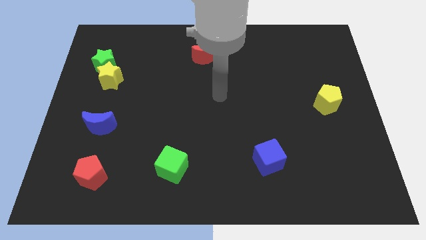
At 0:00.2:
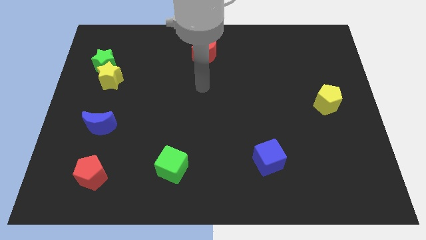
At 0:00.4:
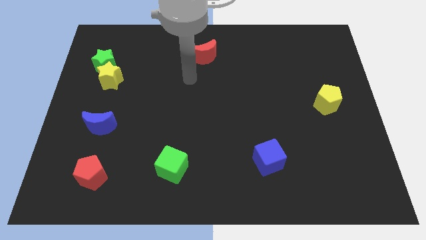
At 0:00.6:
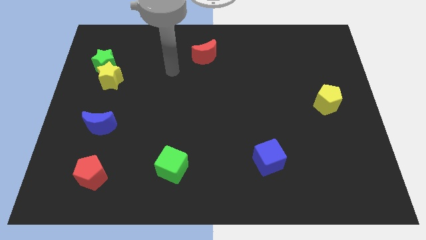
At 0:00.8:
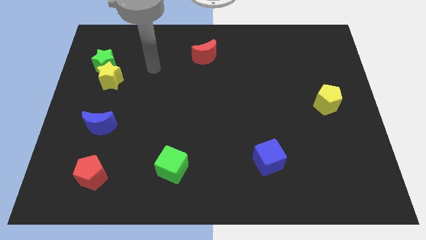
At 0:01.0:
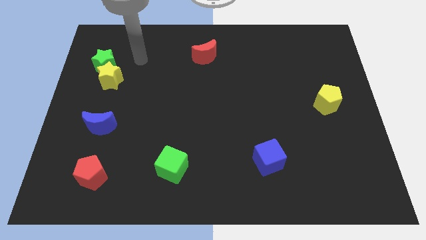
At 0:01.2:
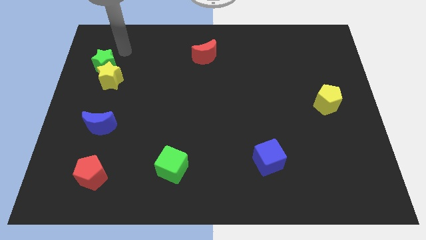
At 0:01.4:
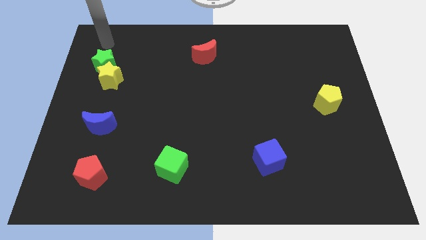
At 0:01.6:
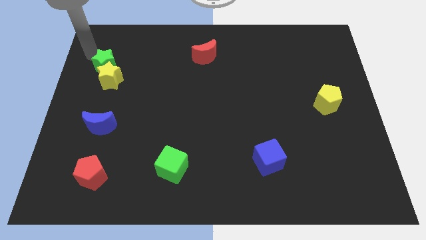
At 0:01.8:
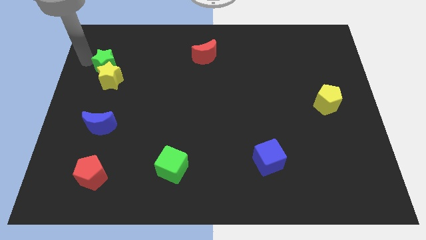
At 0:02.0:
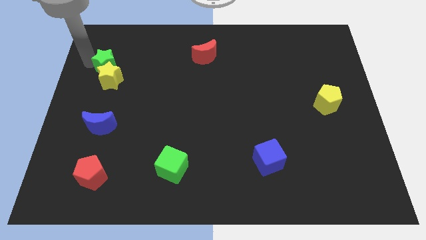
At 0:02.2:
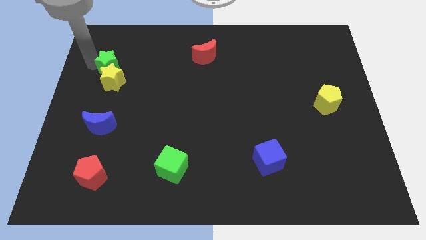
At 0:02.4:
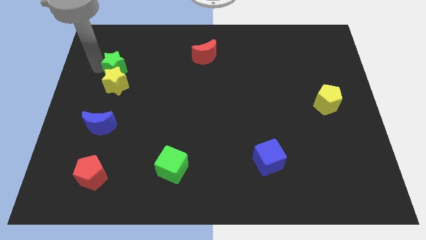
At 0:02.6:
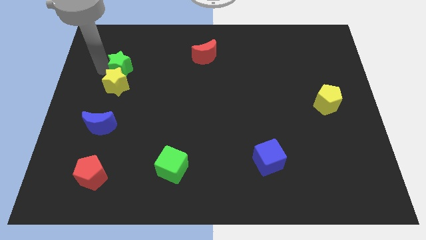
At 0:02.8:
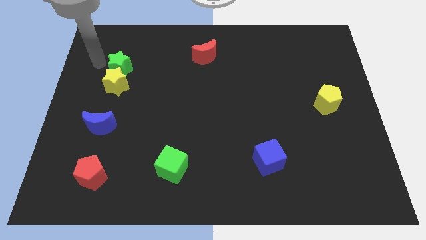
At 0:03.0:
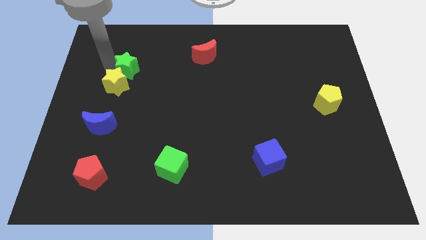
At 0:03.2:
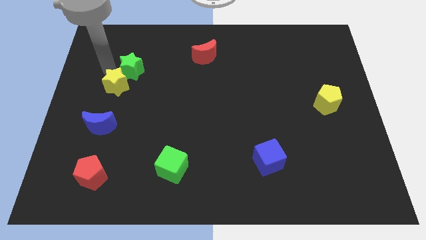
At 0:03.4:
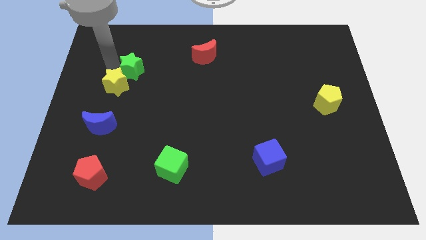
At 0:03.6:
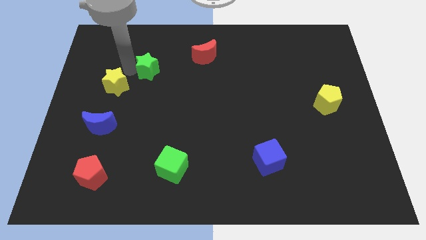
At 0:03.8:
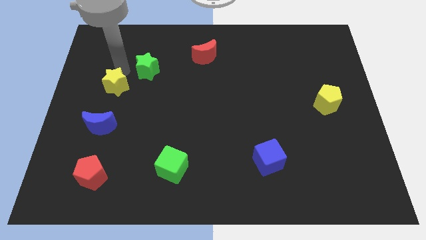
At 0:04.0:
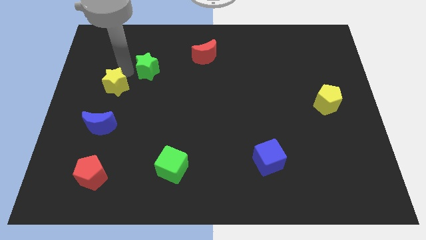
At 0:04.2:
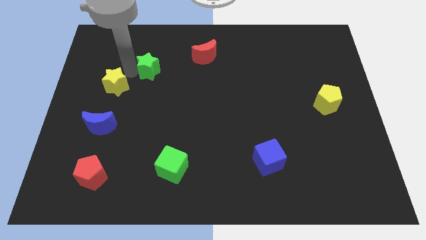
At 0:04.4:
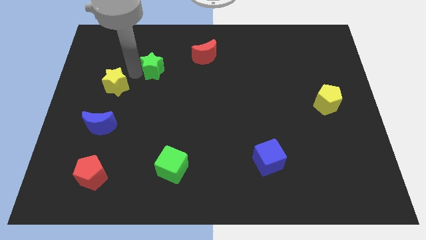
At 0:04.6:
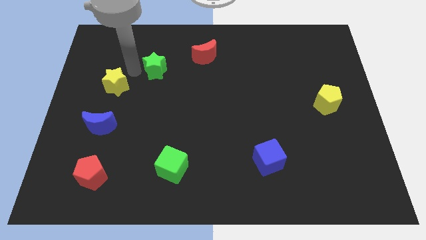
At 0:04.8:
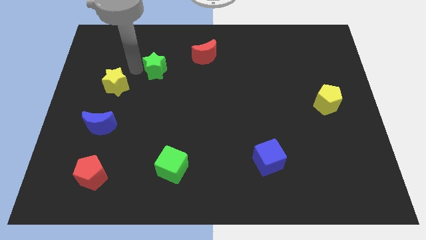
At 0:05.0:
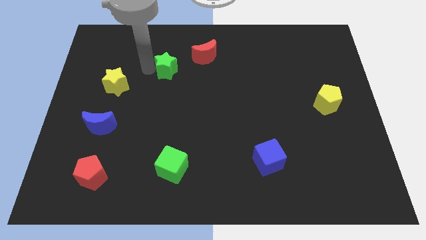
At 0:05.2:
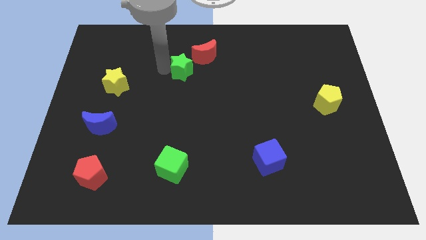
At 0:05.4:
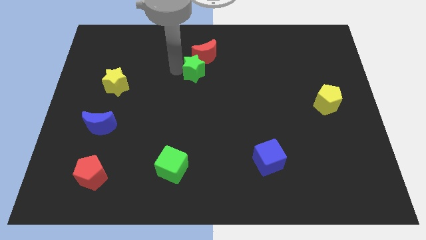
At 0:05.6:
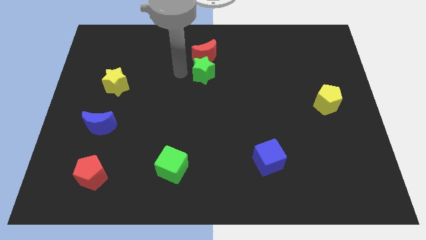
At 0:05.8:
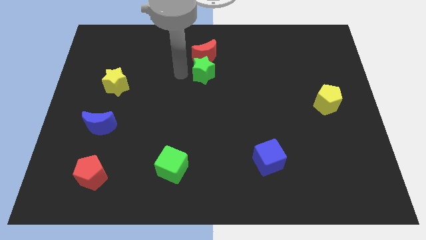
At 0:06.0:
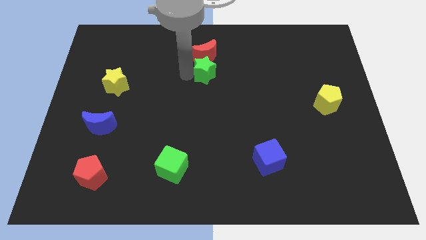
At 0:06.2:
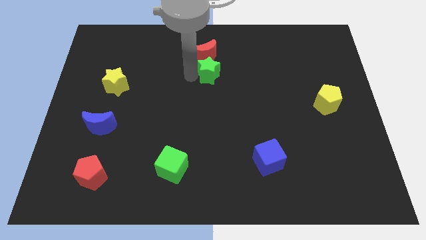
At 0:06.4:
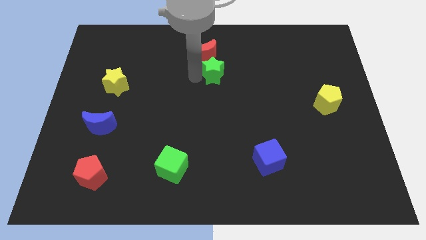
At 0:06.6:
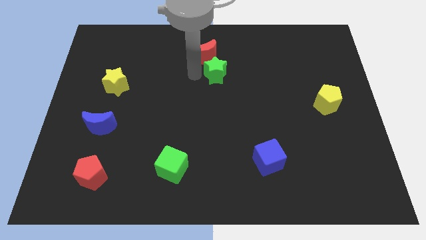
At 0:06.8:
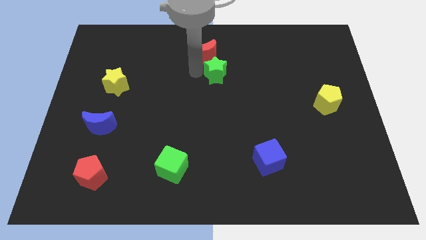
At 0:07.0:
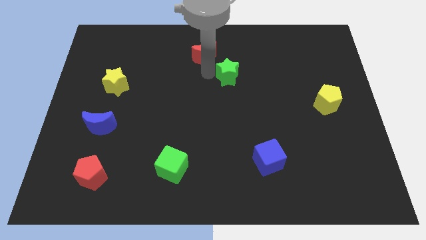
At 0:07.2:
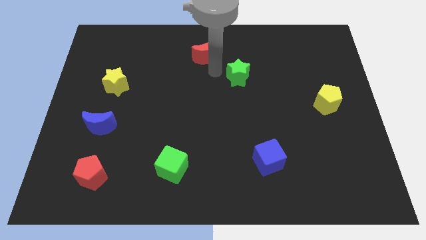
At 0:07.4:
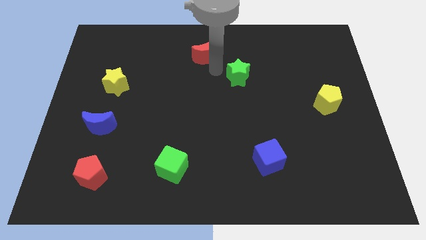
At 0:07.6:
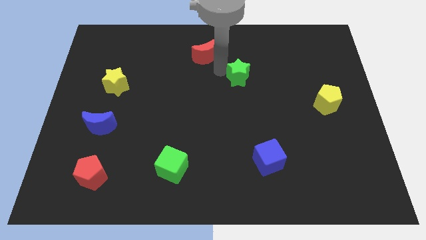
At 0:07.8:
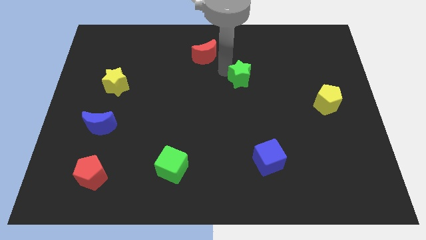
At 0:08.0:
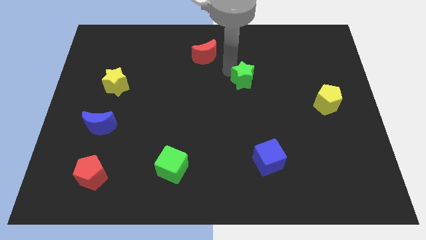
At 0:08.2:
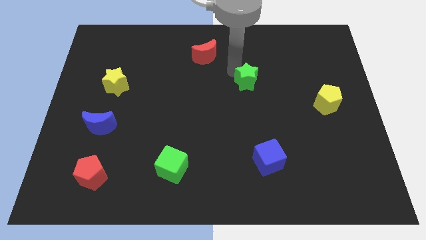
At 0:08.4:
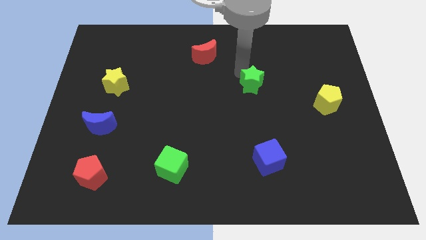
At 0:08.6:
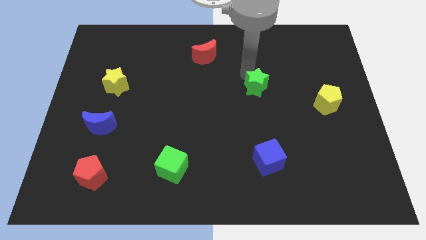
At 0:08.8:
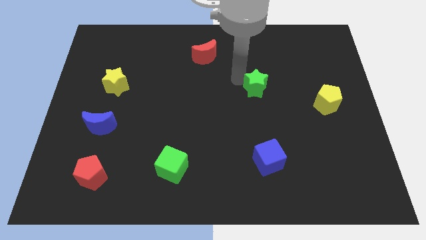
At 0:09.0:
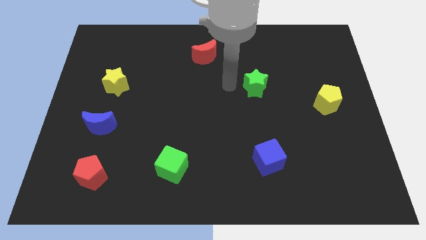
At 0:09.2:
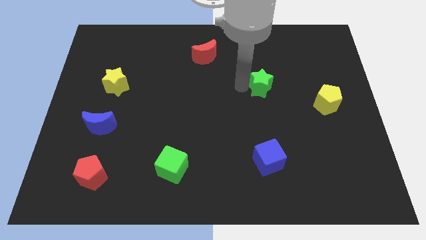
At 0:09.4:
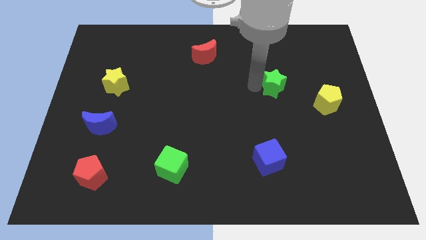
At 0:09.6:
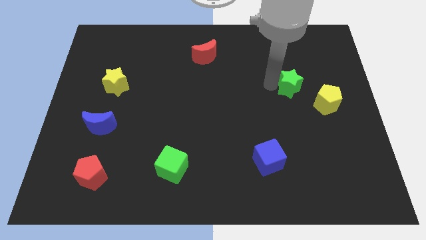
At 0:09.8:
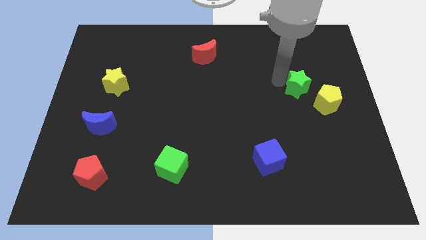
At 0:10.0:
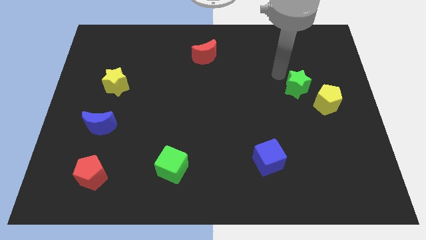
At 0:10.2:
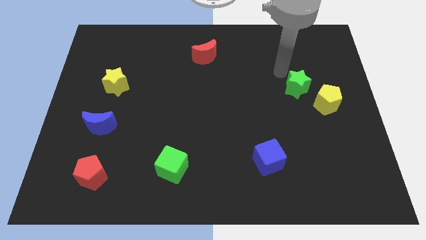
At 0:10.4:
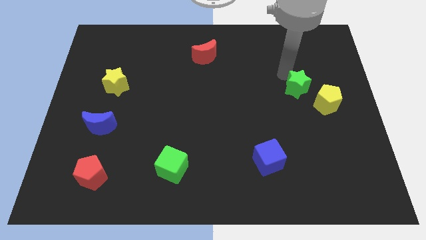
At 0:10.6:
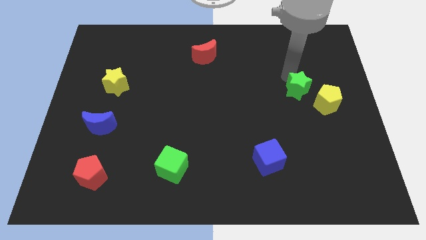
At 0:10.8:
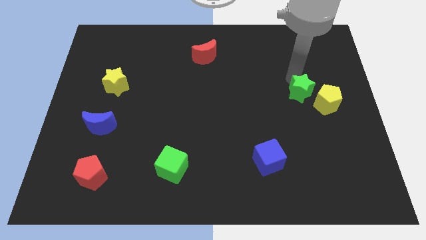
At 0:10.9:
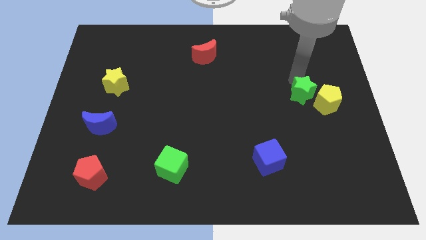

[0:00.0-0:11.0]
push the green star next to the yellow pentagon

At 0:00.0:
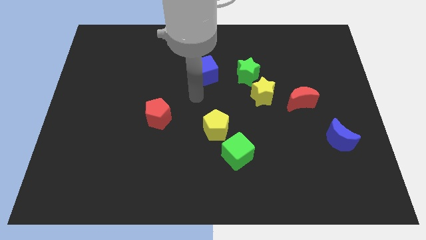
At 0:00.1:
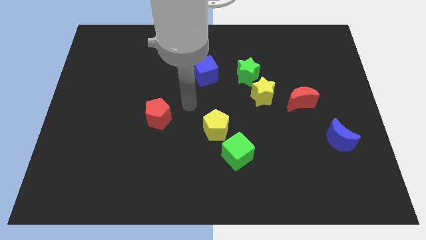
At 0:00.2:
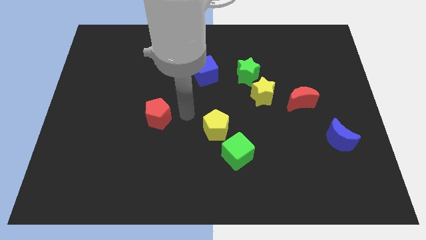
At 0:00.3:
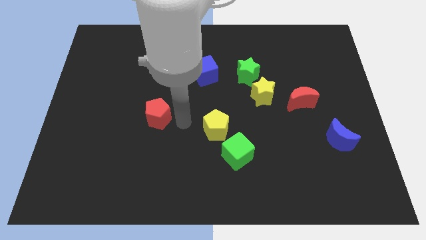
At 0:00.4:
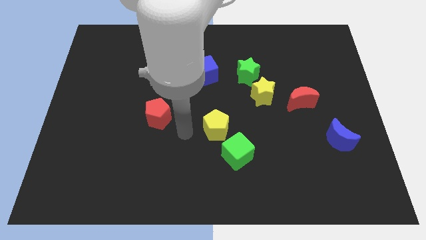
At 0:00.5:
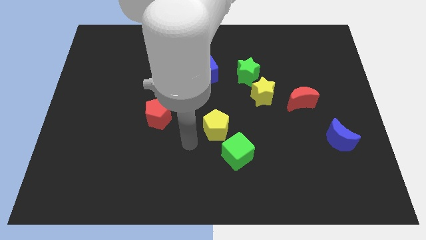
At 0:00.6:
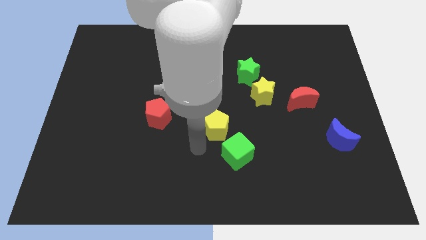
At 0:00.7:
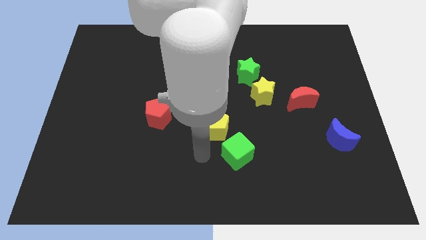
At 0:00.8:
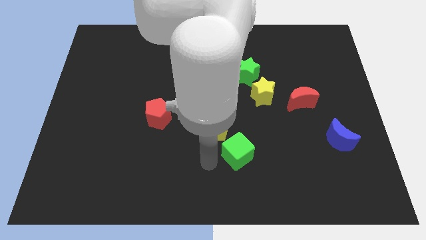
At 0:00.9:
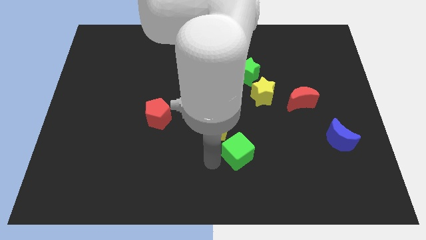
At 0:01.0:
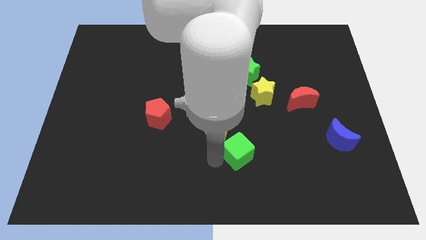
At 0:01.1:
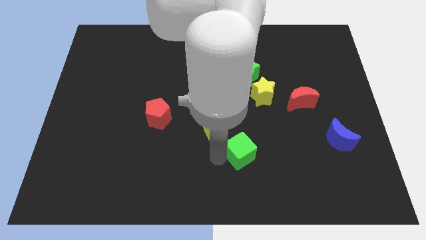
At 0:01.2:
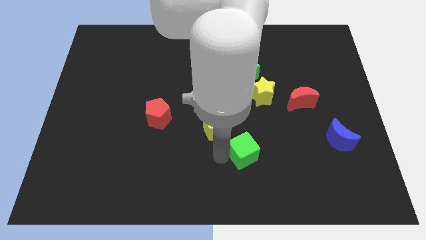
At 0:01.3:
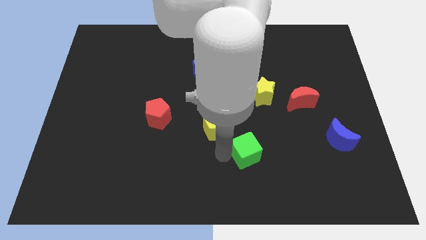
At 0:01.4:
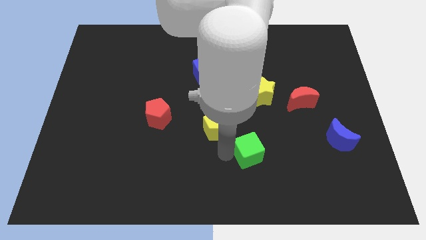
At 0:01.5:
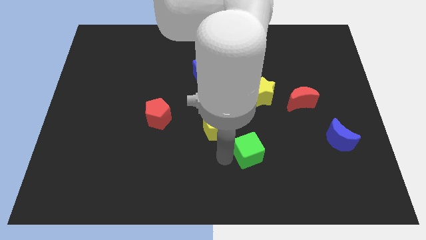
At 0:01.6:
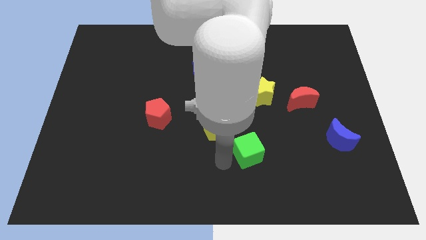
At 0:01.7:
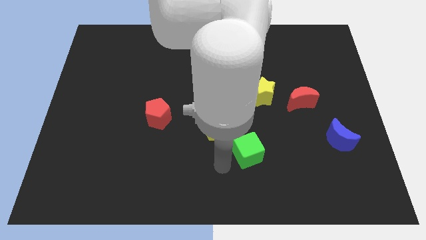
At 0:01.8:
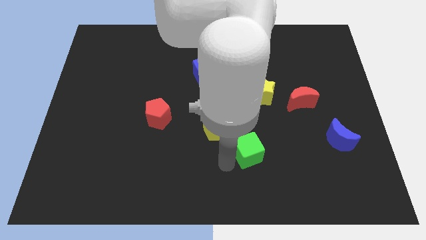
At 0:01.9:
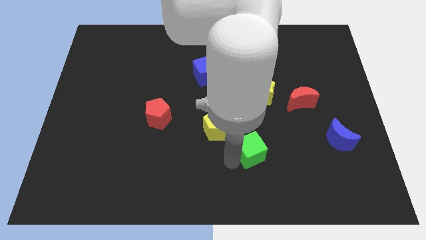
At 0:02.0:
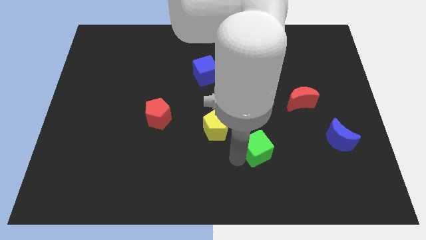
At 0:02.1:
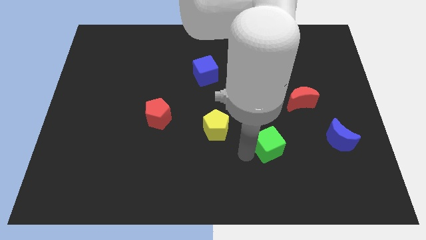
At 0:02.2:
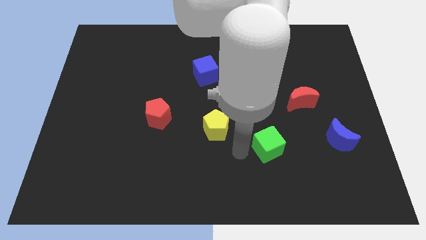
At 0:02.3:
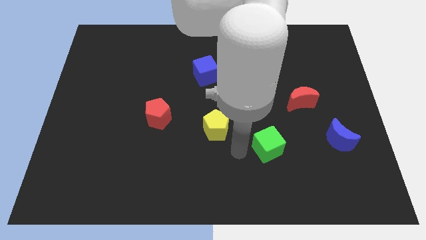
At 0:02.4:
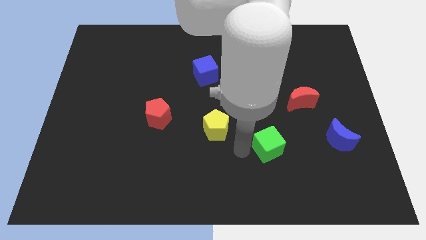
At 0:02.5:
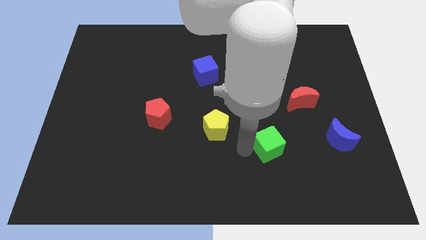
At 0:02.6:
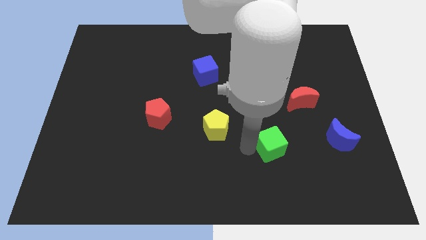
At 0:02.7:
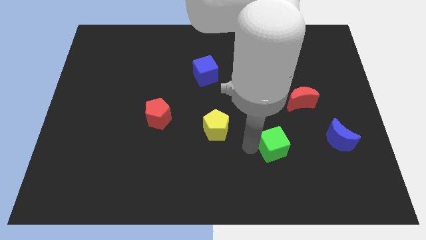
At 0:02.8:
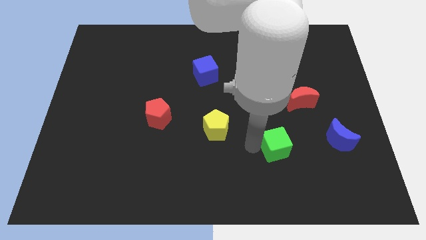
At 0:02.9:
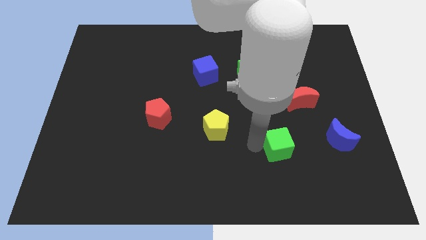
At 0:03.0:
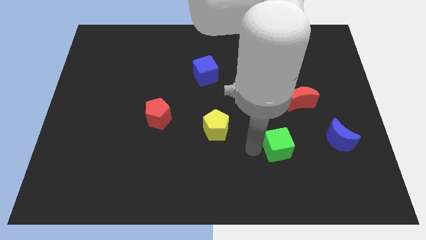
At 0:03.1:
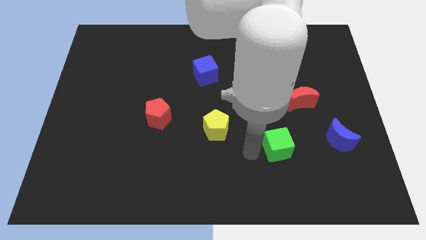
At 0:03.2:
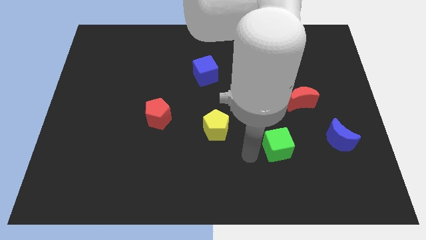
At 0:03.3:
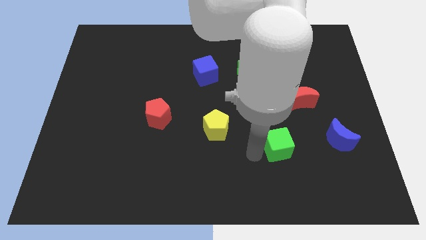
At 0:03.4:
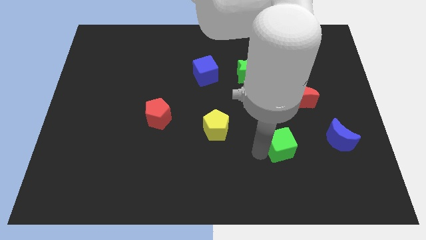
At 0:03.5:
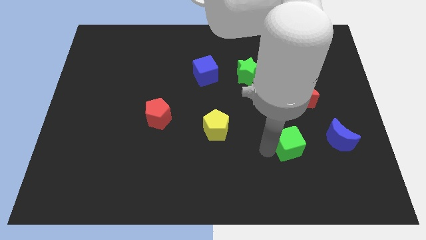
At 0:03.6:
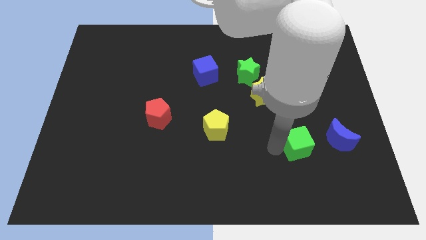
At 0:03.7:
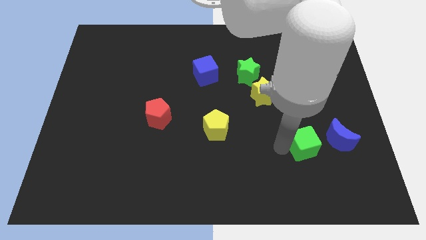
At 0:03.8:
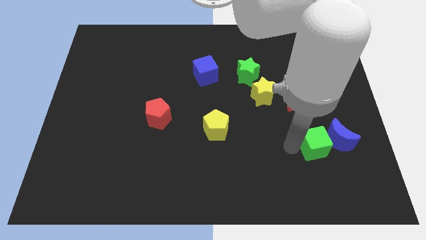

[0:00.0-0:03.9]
slide the green cube to the blue moon
